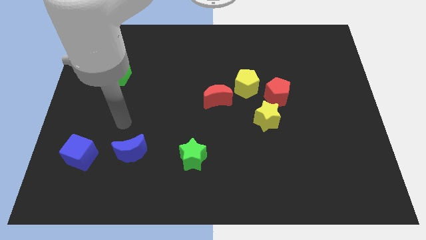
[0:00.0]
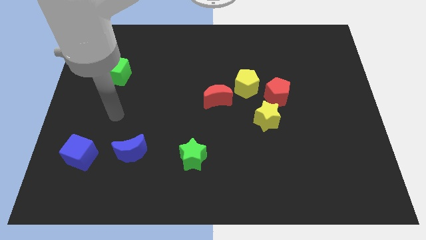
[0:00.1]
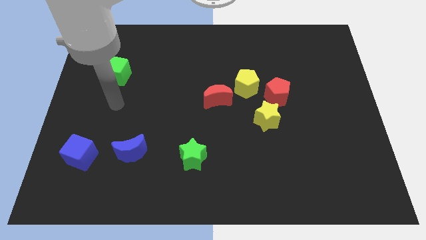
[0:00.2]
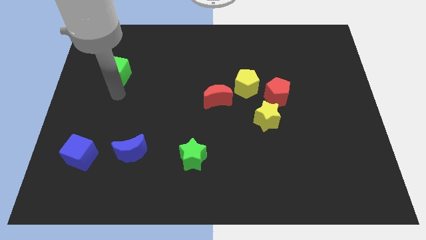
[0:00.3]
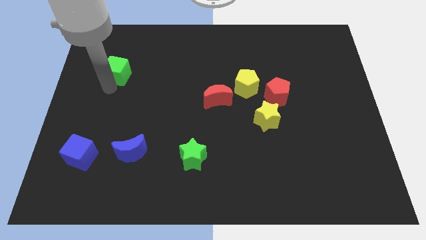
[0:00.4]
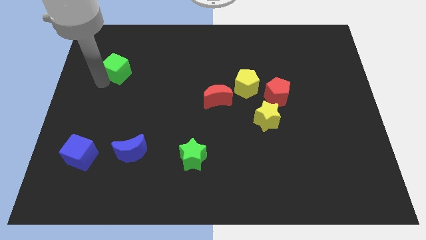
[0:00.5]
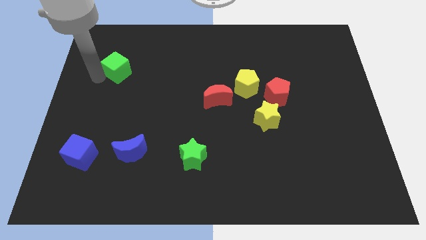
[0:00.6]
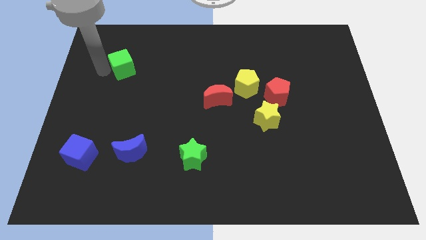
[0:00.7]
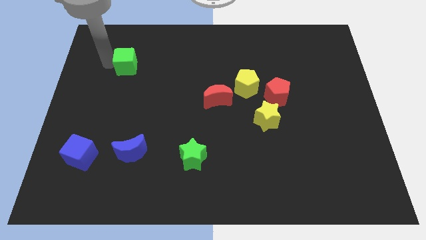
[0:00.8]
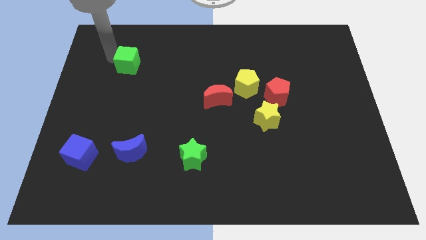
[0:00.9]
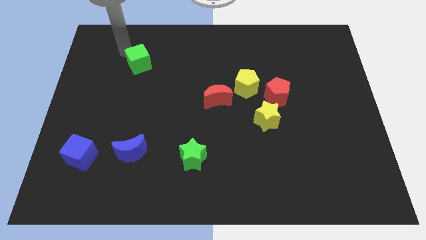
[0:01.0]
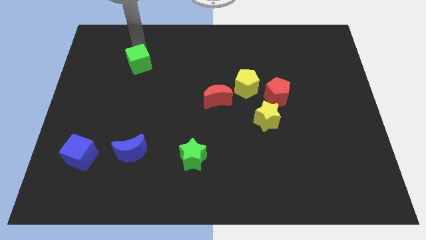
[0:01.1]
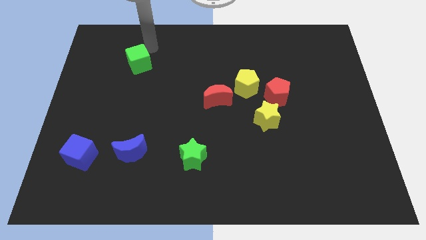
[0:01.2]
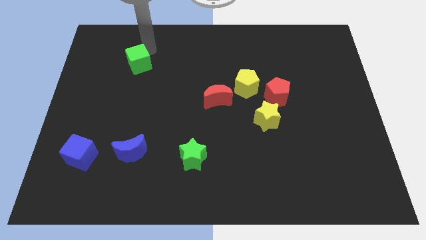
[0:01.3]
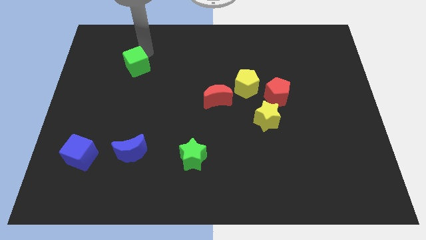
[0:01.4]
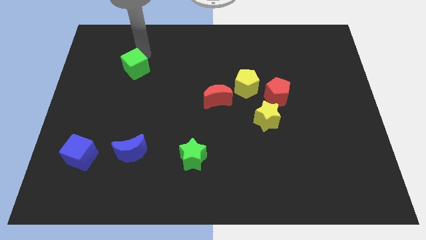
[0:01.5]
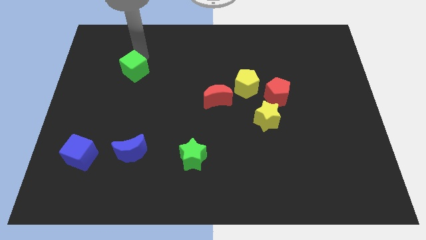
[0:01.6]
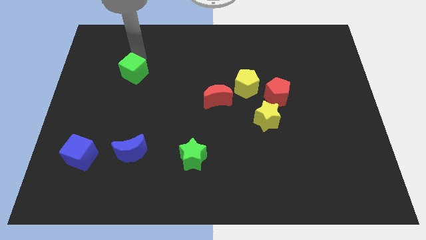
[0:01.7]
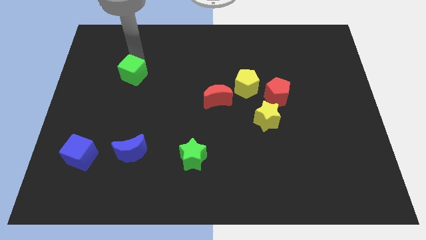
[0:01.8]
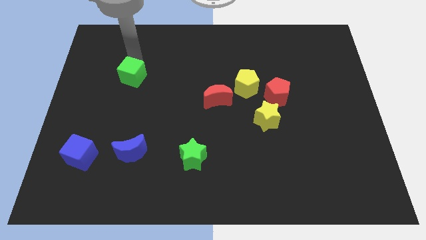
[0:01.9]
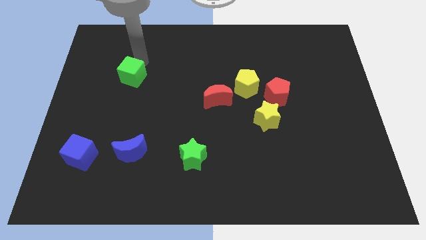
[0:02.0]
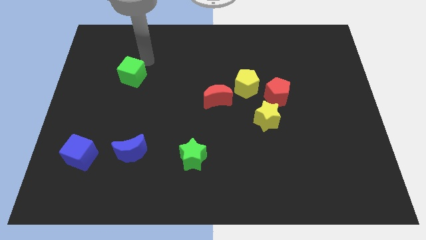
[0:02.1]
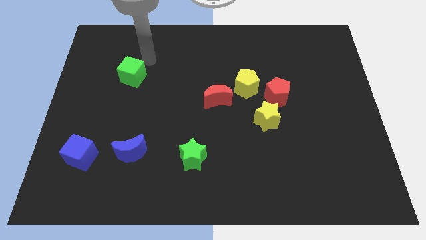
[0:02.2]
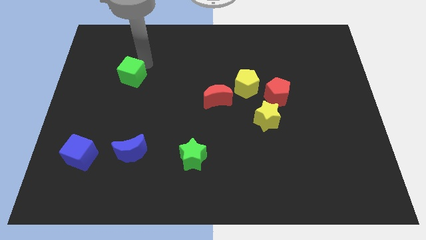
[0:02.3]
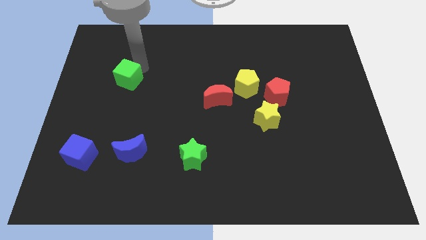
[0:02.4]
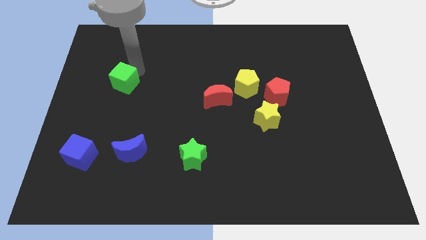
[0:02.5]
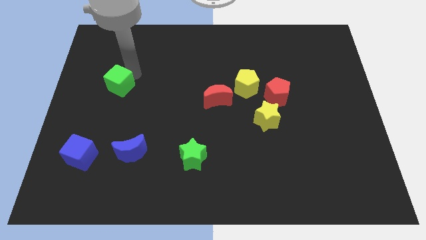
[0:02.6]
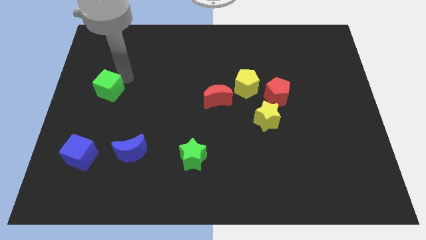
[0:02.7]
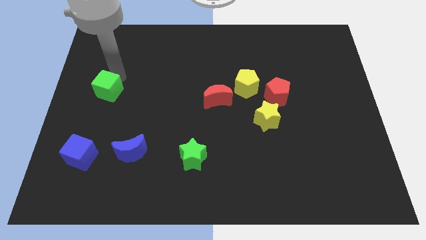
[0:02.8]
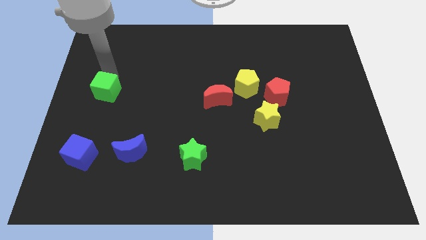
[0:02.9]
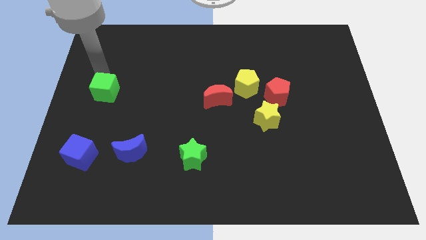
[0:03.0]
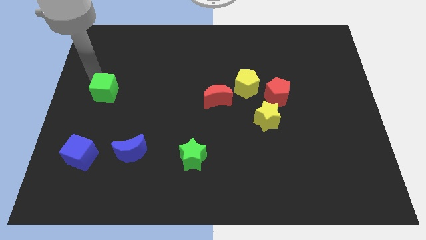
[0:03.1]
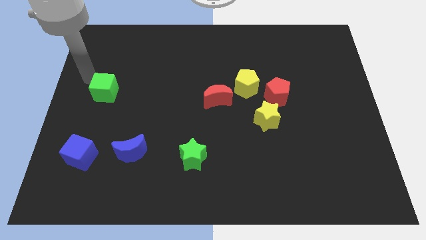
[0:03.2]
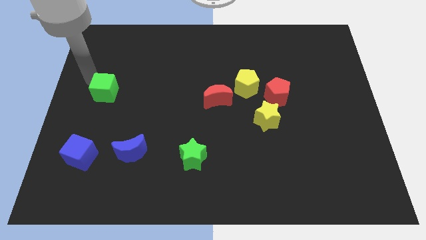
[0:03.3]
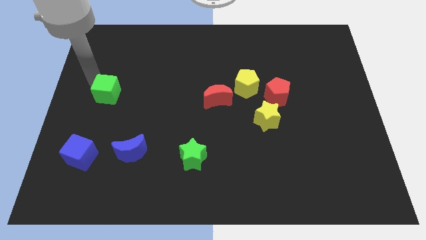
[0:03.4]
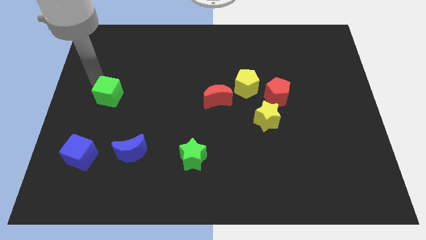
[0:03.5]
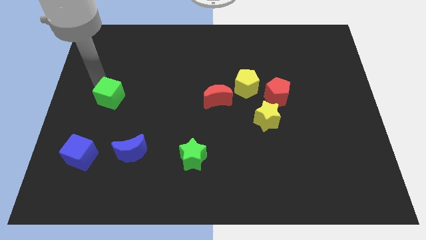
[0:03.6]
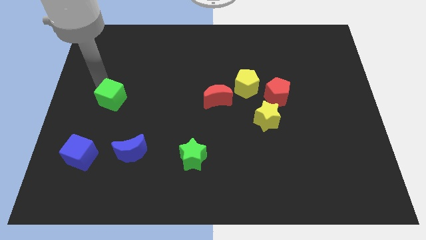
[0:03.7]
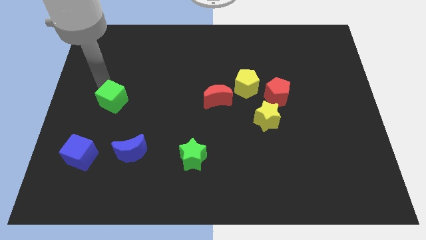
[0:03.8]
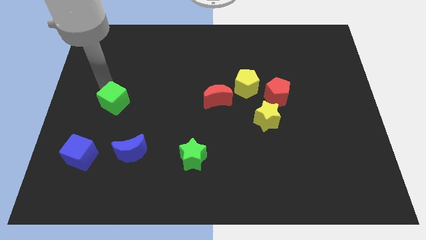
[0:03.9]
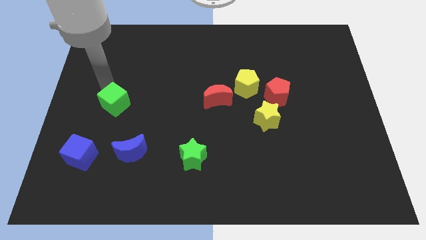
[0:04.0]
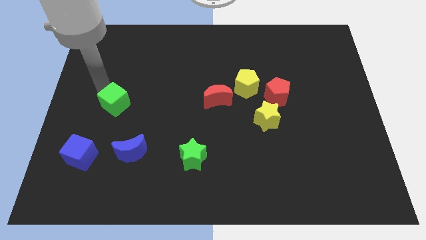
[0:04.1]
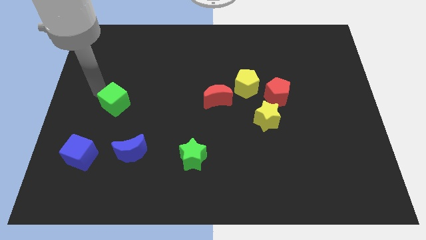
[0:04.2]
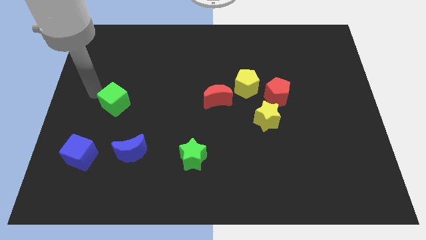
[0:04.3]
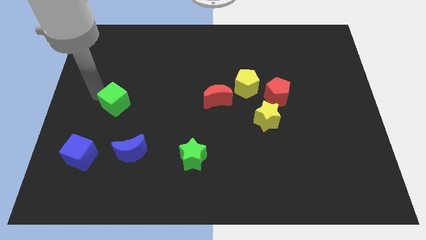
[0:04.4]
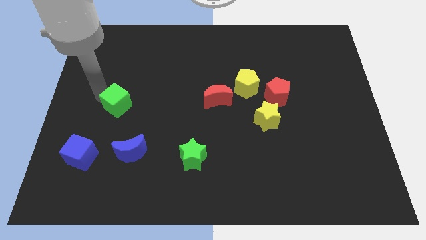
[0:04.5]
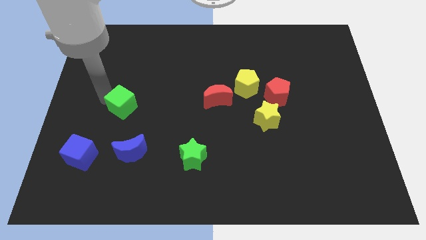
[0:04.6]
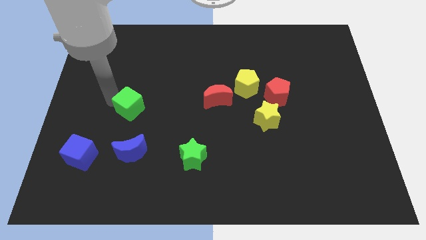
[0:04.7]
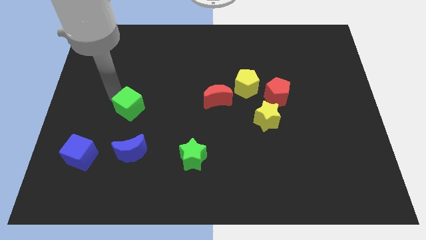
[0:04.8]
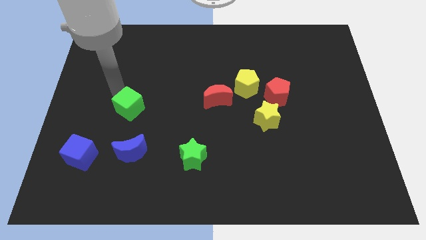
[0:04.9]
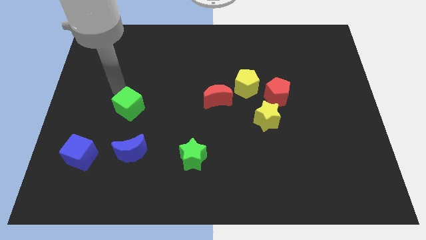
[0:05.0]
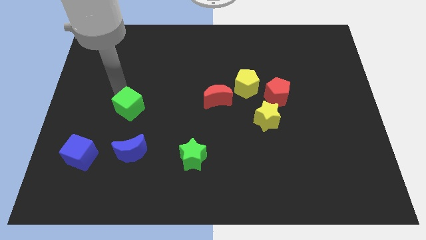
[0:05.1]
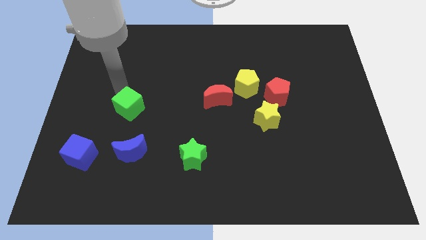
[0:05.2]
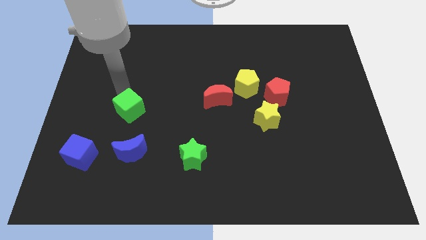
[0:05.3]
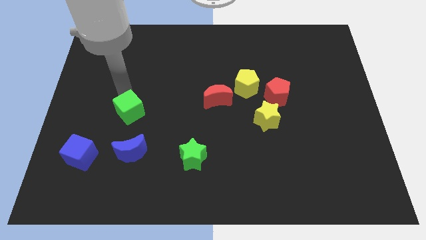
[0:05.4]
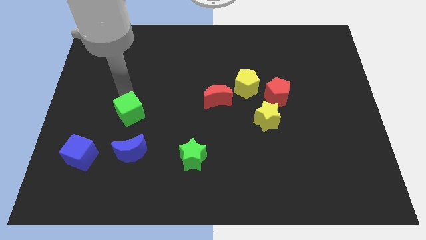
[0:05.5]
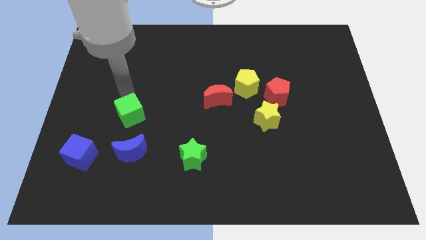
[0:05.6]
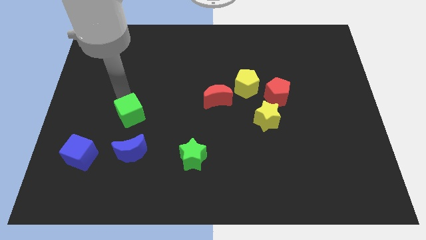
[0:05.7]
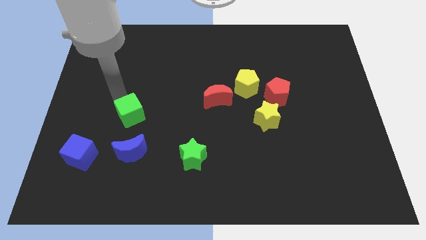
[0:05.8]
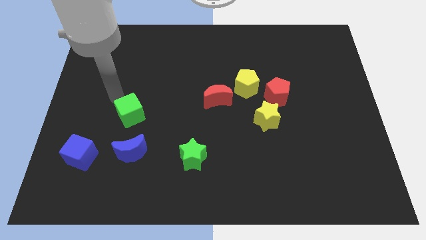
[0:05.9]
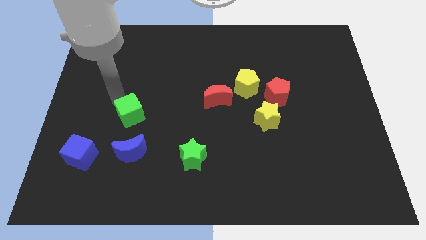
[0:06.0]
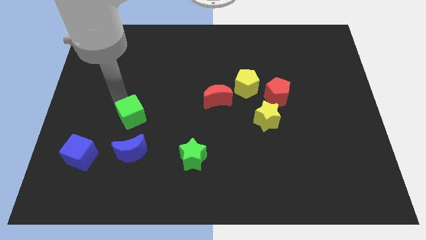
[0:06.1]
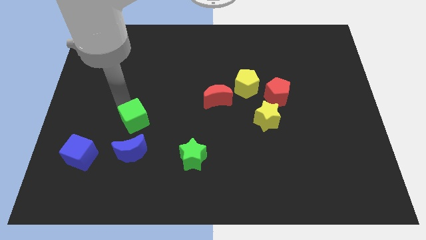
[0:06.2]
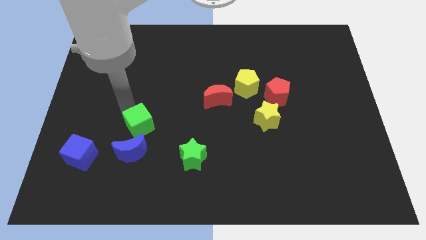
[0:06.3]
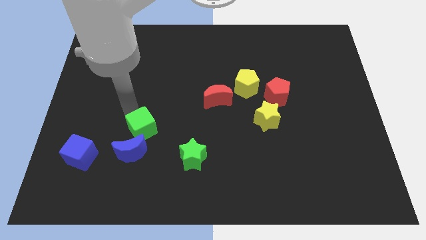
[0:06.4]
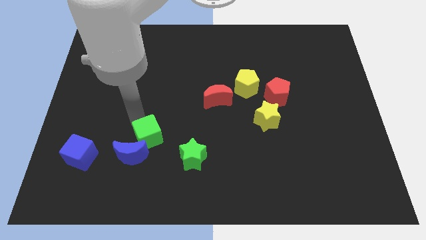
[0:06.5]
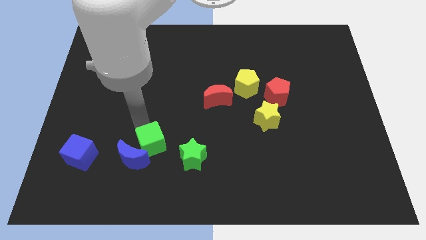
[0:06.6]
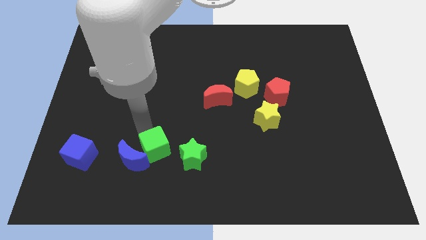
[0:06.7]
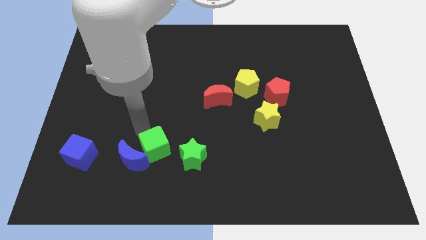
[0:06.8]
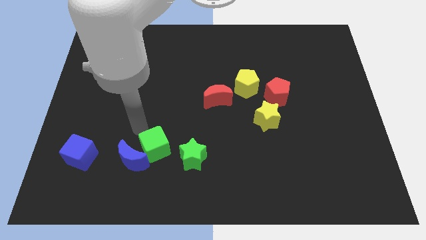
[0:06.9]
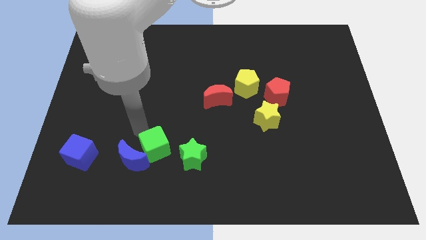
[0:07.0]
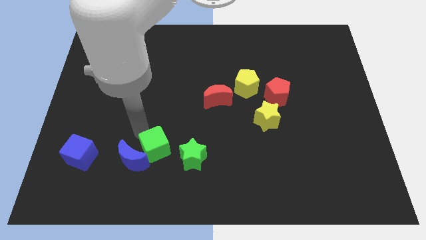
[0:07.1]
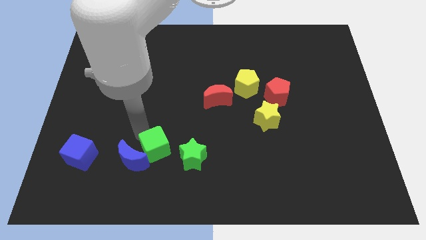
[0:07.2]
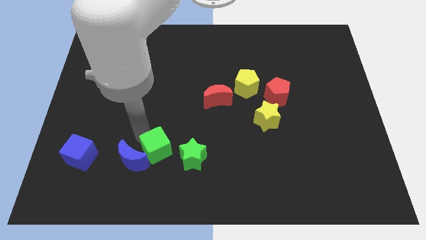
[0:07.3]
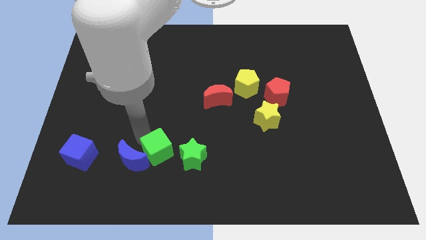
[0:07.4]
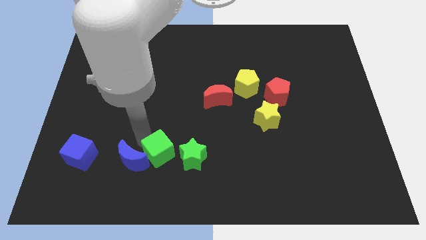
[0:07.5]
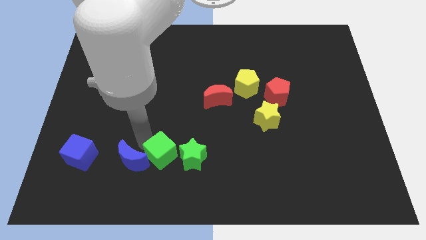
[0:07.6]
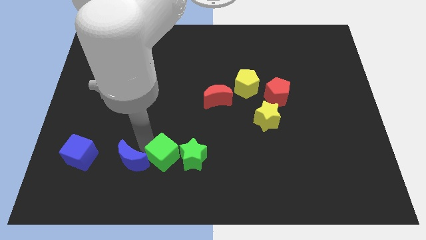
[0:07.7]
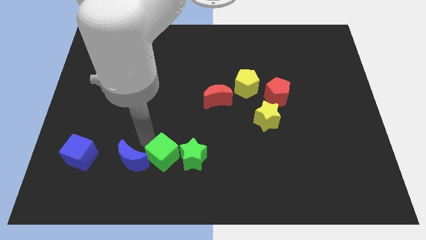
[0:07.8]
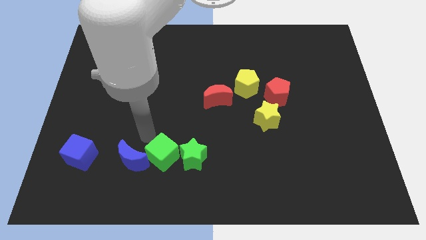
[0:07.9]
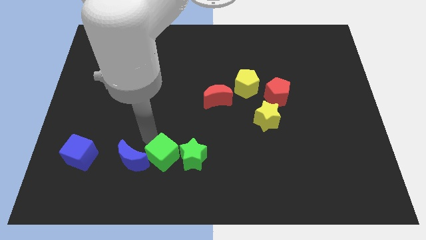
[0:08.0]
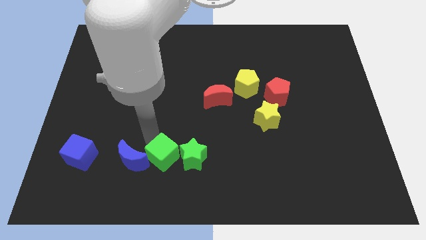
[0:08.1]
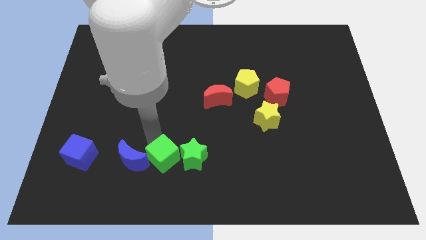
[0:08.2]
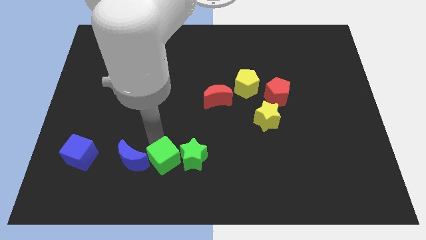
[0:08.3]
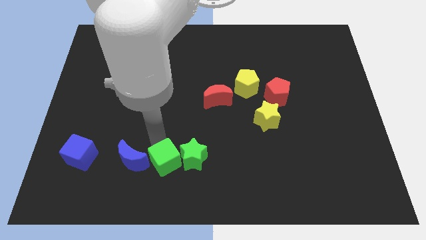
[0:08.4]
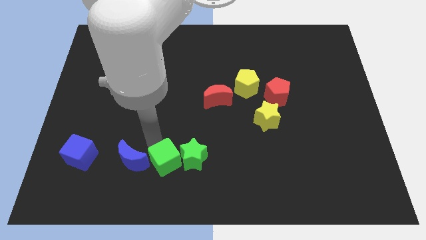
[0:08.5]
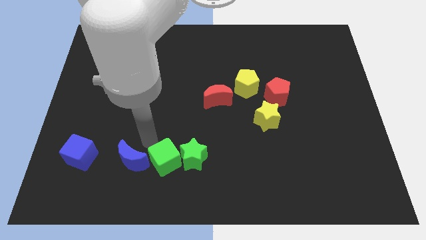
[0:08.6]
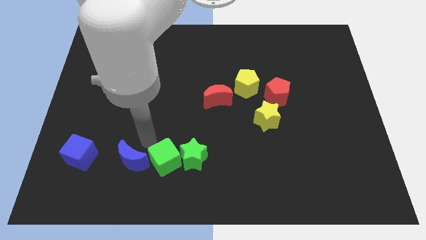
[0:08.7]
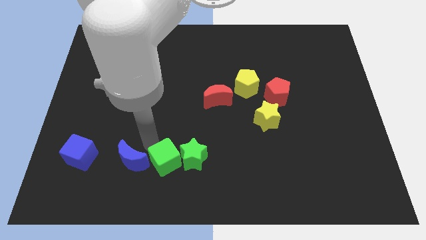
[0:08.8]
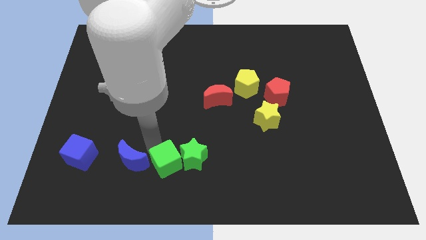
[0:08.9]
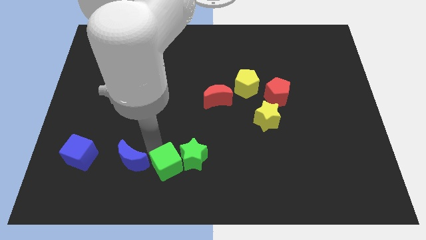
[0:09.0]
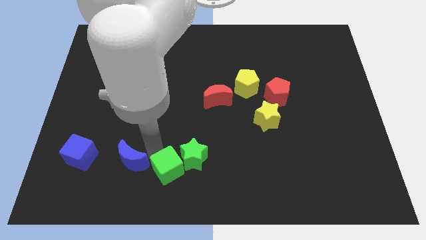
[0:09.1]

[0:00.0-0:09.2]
slide the green cube to the bottom side
